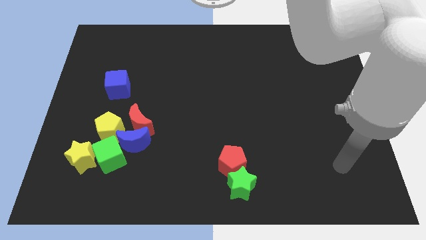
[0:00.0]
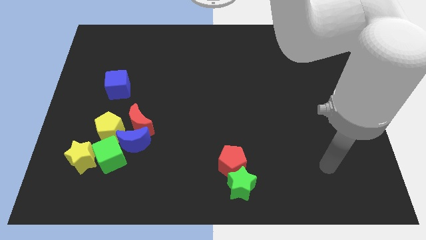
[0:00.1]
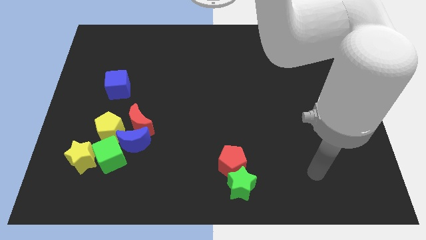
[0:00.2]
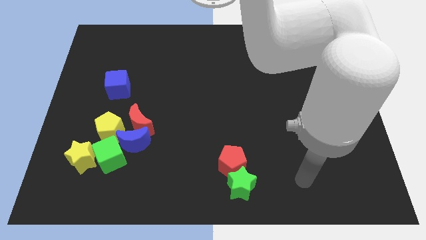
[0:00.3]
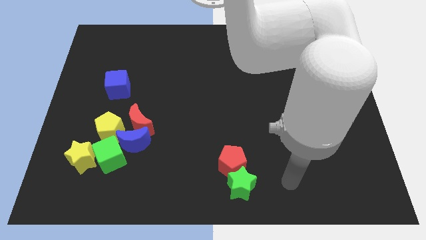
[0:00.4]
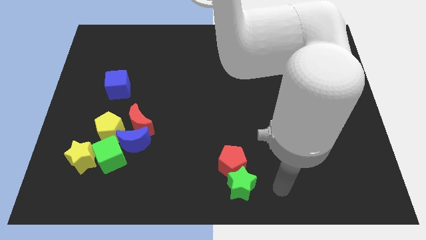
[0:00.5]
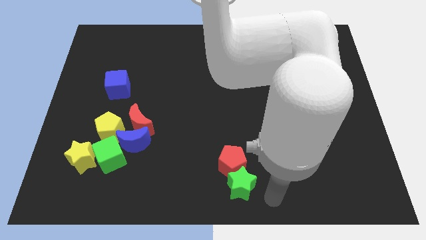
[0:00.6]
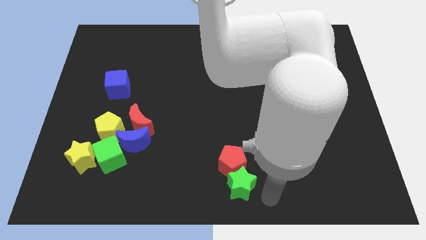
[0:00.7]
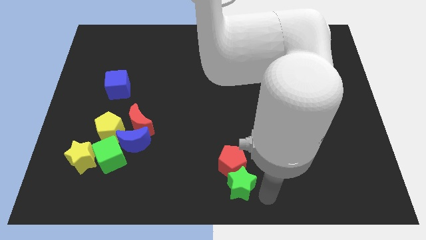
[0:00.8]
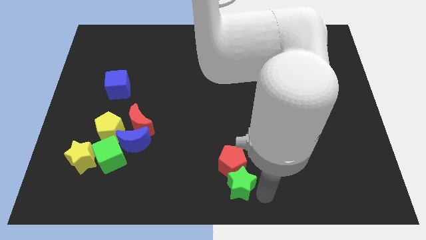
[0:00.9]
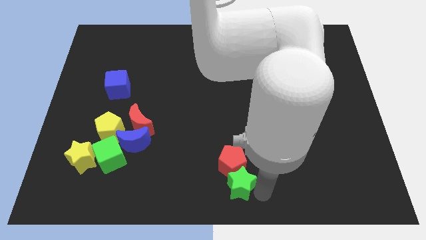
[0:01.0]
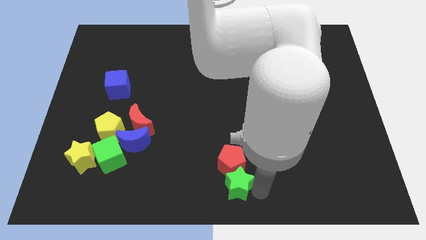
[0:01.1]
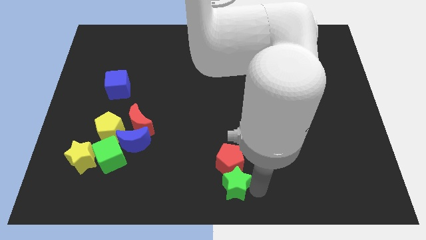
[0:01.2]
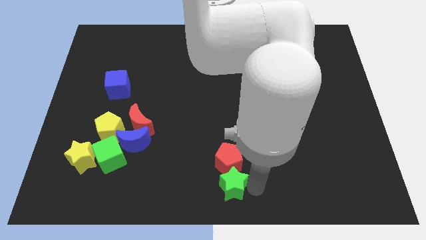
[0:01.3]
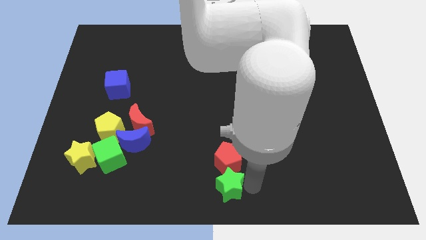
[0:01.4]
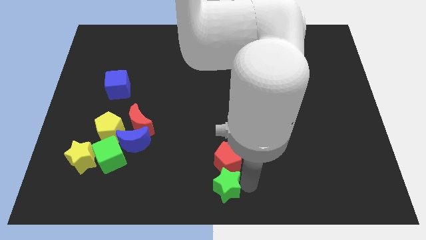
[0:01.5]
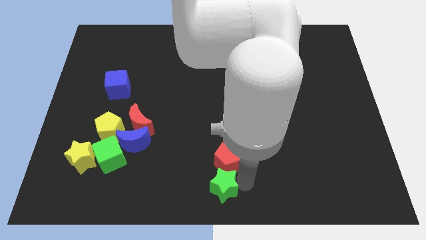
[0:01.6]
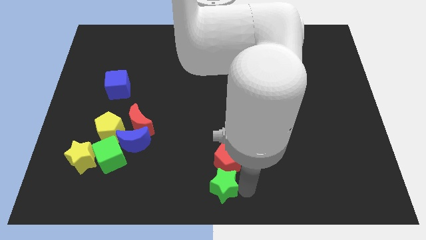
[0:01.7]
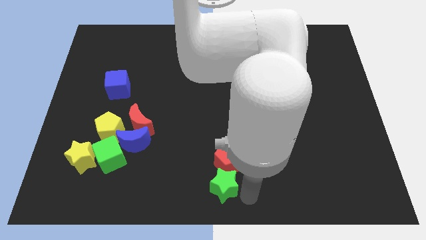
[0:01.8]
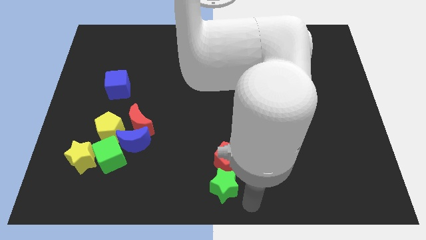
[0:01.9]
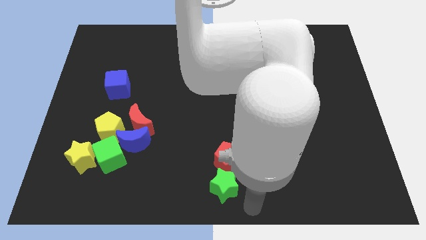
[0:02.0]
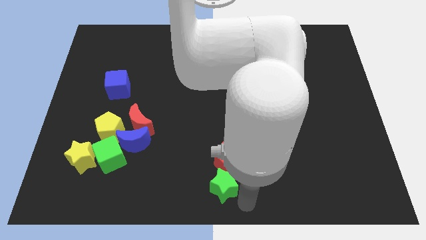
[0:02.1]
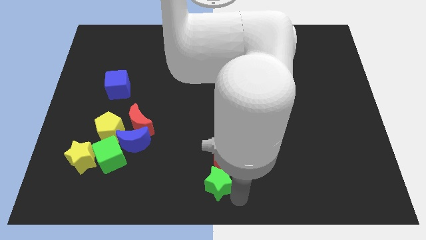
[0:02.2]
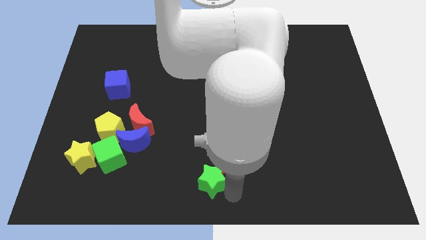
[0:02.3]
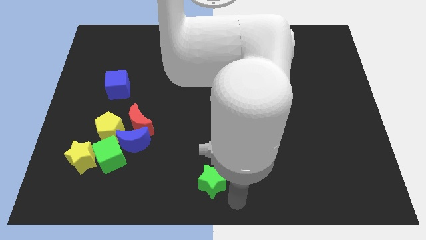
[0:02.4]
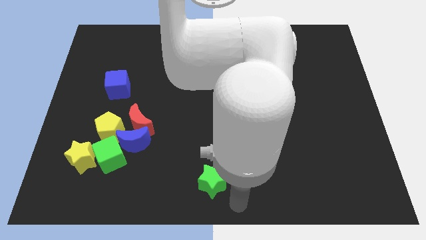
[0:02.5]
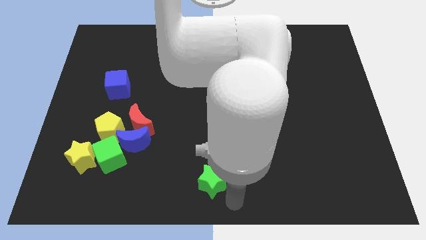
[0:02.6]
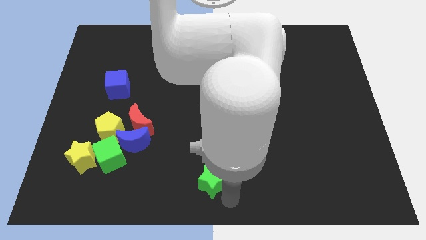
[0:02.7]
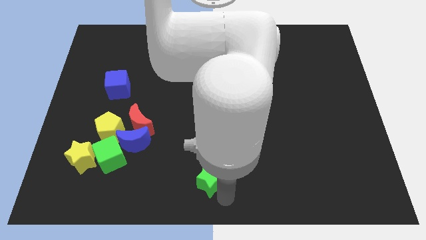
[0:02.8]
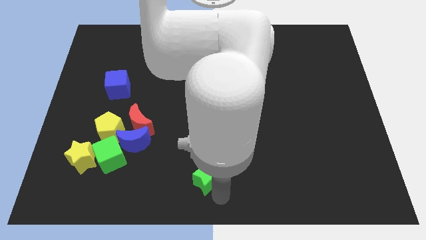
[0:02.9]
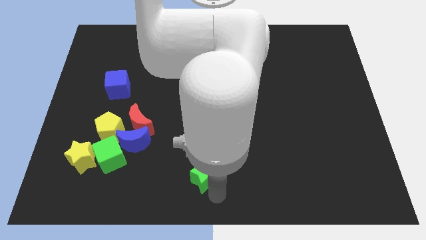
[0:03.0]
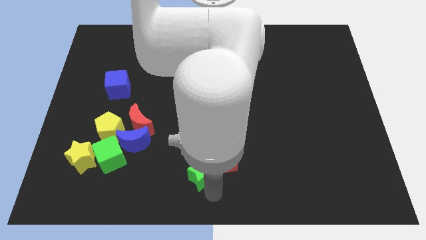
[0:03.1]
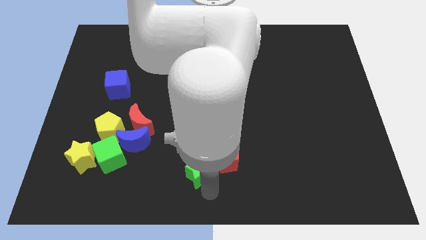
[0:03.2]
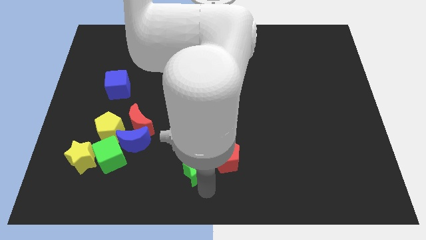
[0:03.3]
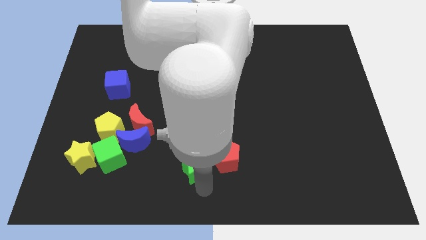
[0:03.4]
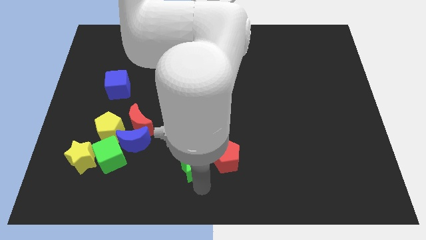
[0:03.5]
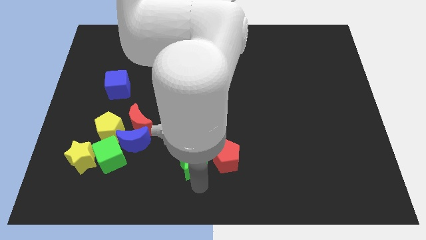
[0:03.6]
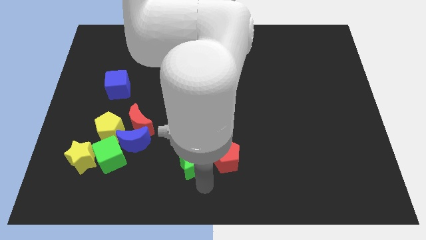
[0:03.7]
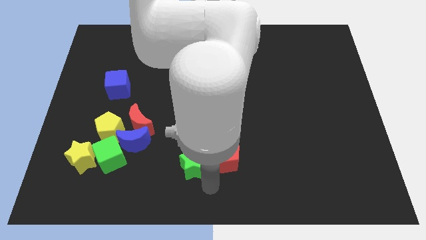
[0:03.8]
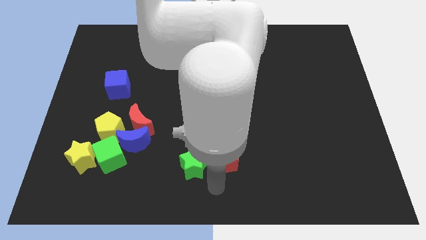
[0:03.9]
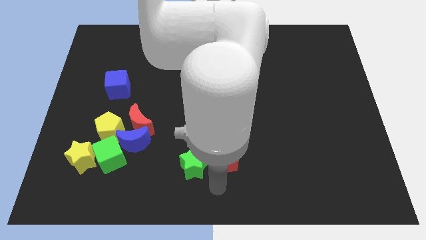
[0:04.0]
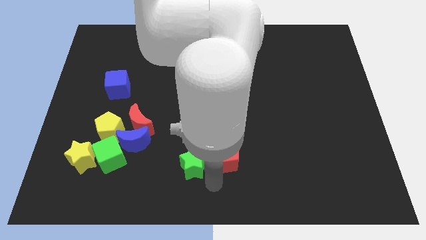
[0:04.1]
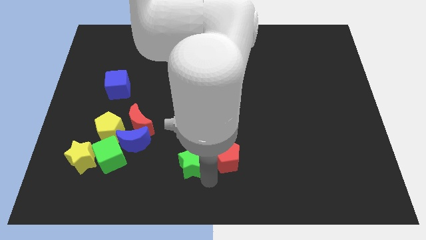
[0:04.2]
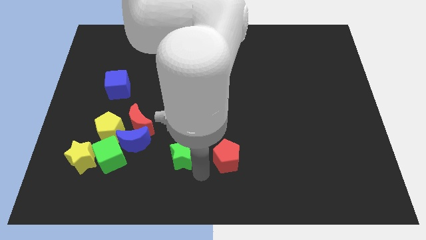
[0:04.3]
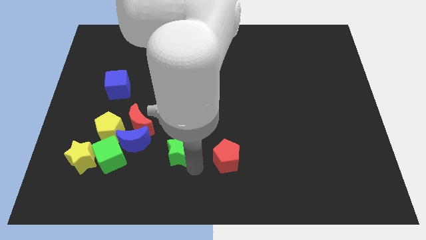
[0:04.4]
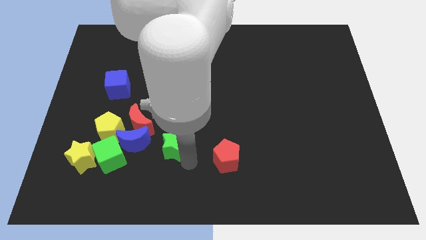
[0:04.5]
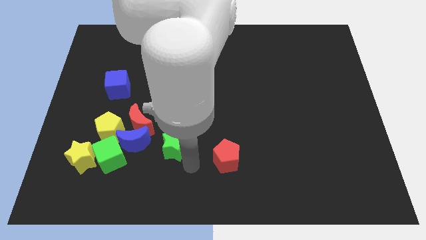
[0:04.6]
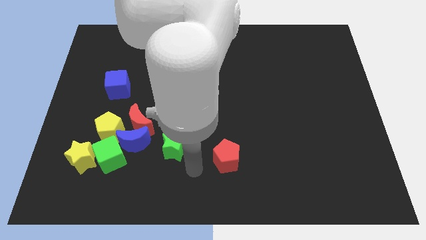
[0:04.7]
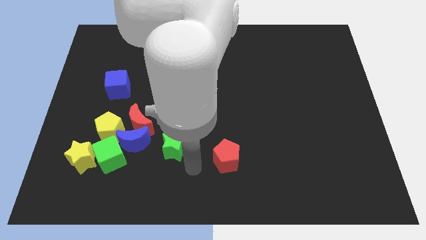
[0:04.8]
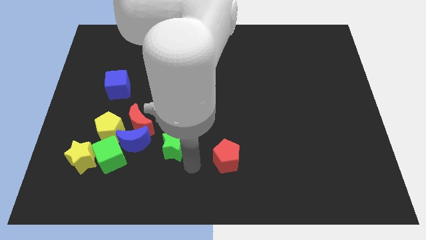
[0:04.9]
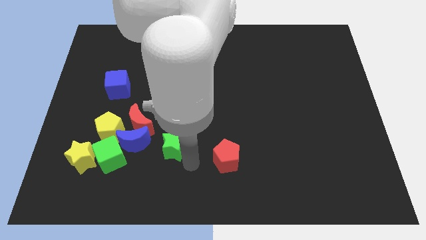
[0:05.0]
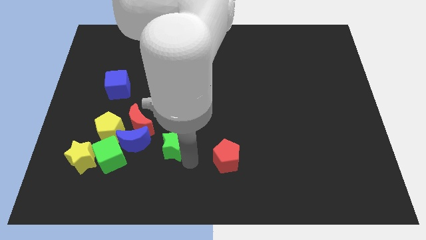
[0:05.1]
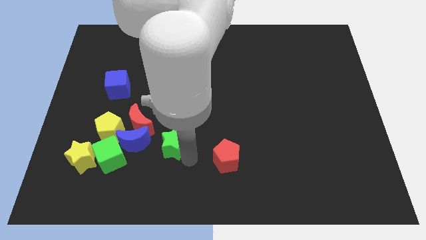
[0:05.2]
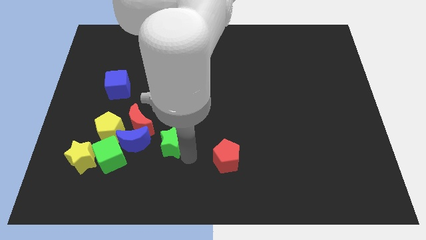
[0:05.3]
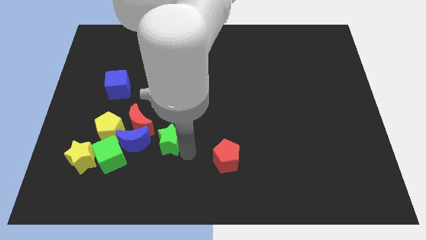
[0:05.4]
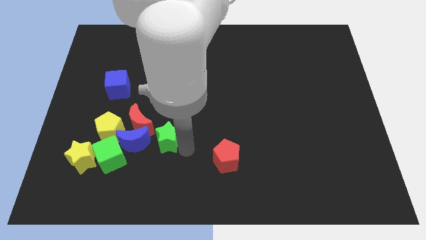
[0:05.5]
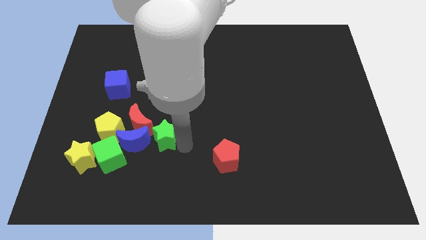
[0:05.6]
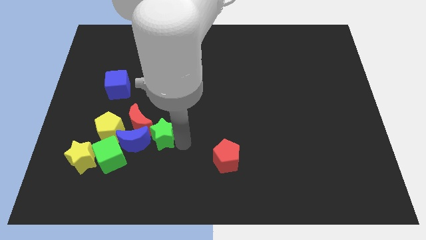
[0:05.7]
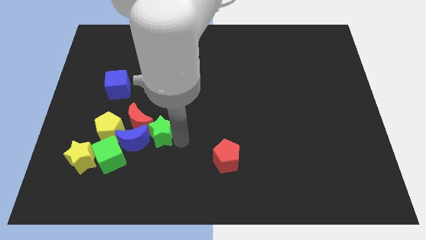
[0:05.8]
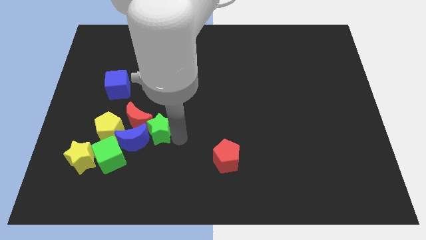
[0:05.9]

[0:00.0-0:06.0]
put the green star next to the red moon
